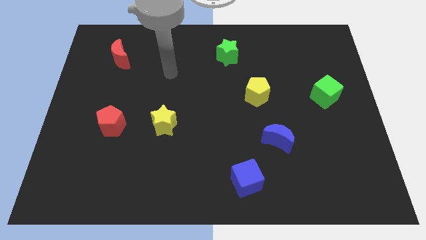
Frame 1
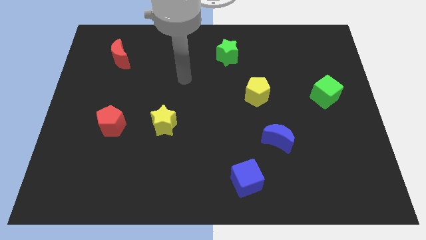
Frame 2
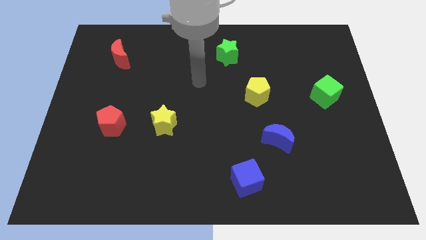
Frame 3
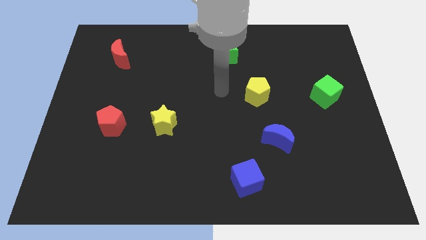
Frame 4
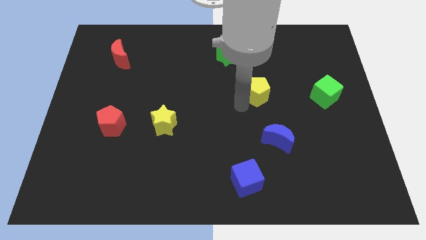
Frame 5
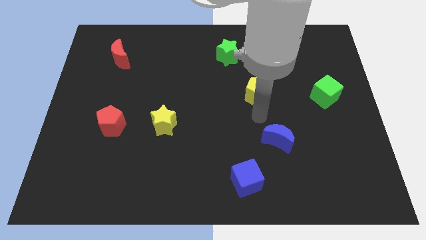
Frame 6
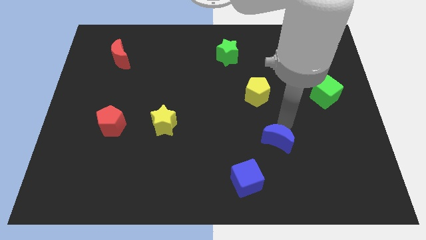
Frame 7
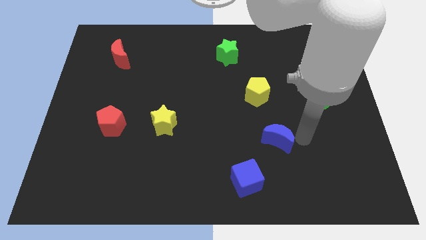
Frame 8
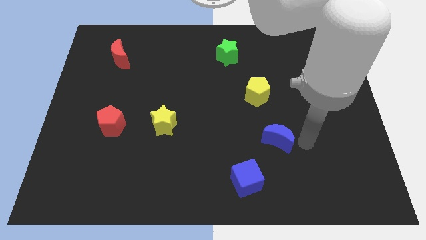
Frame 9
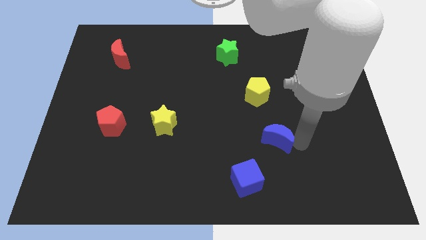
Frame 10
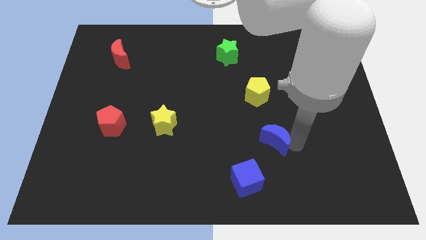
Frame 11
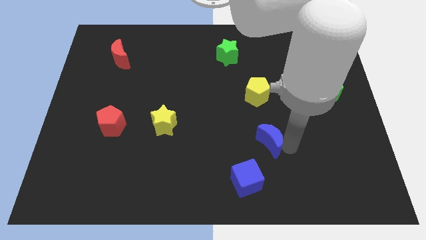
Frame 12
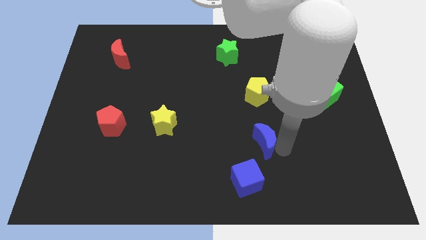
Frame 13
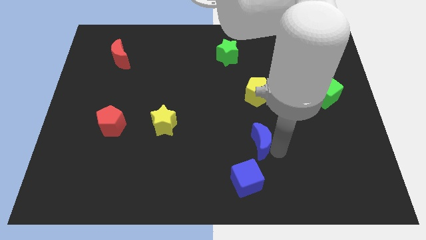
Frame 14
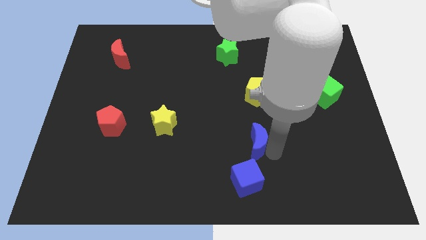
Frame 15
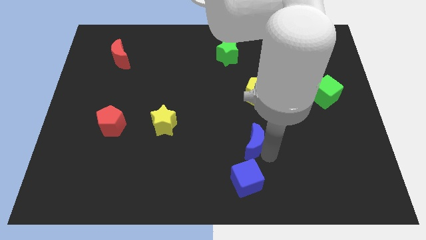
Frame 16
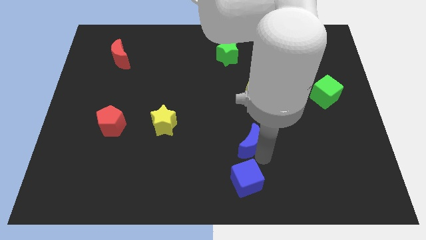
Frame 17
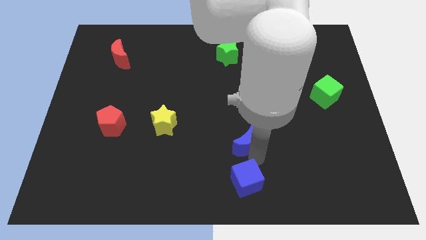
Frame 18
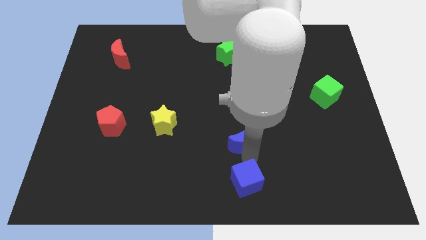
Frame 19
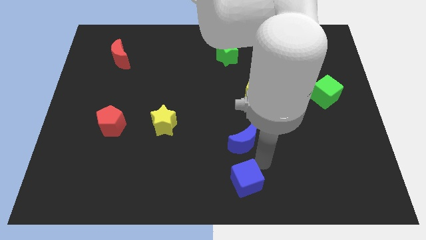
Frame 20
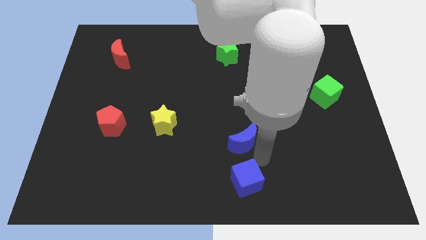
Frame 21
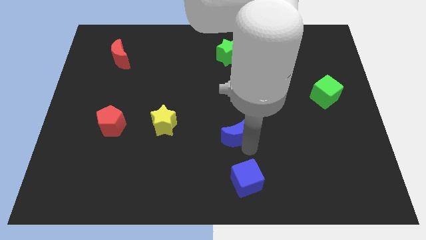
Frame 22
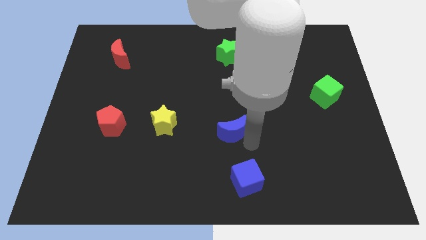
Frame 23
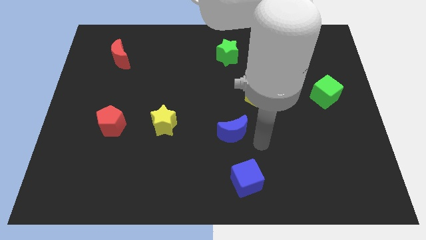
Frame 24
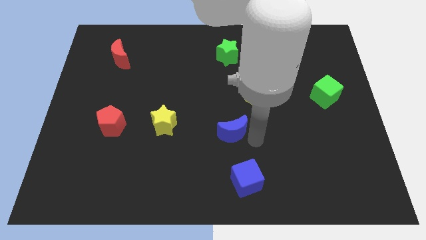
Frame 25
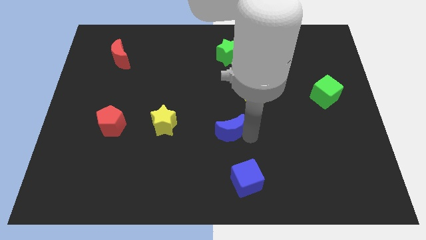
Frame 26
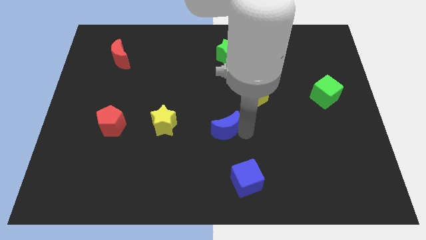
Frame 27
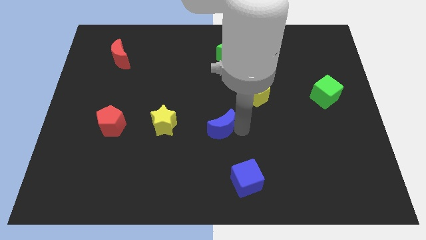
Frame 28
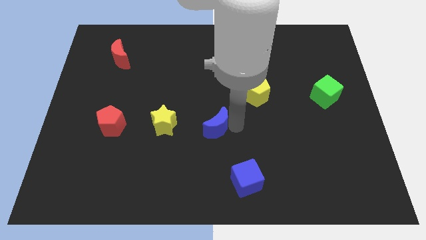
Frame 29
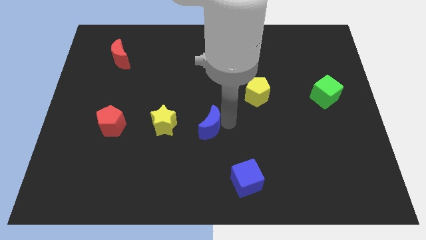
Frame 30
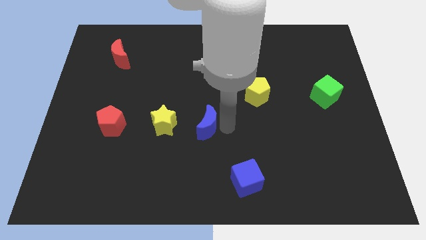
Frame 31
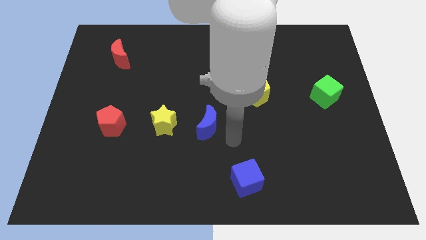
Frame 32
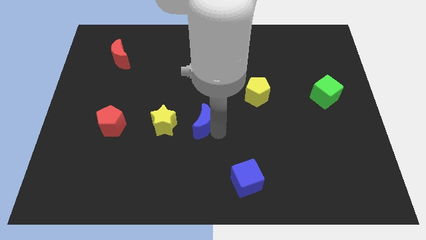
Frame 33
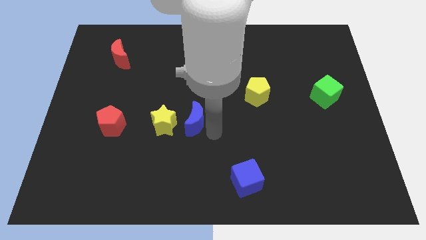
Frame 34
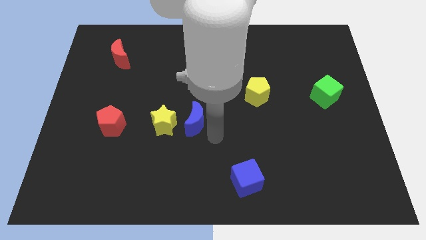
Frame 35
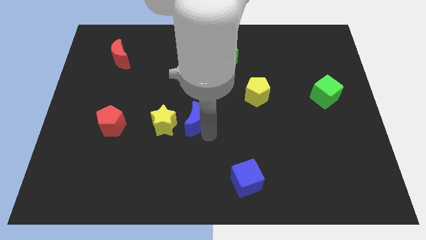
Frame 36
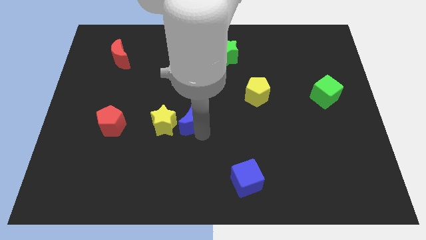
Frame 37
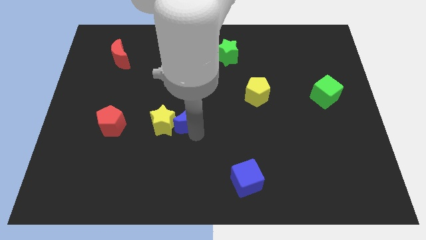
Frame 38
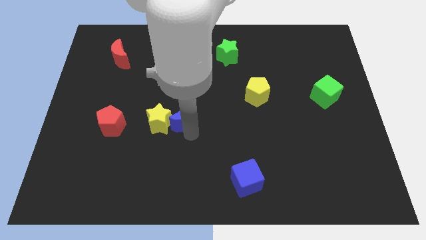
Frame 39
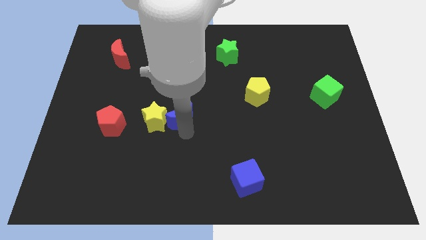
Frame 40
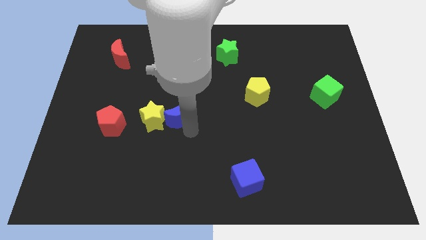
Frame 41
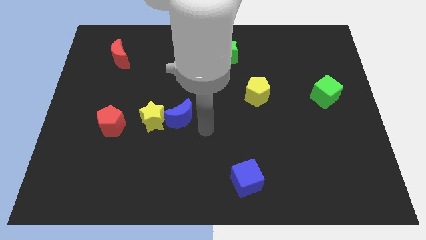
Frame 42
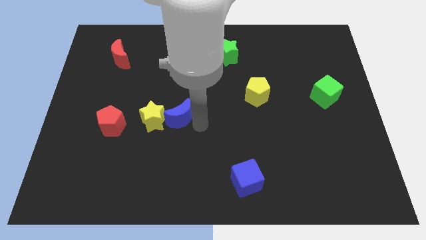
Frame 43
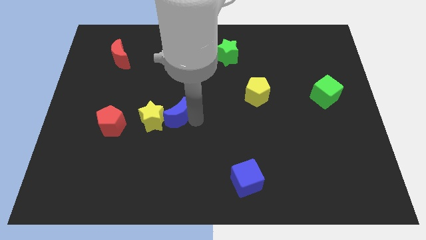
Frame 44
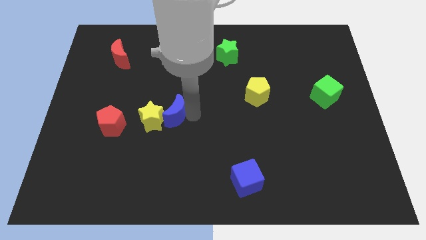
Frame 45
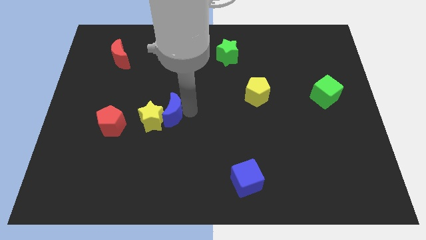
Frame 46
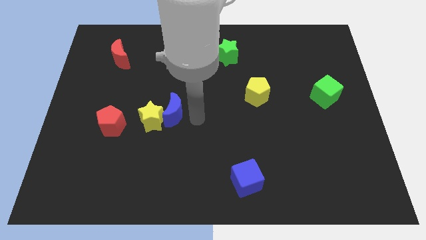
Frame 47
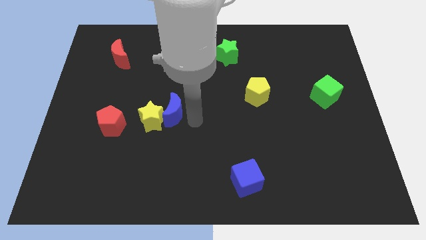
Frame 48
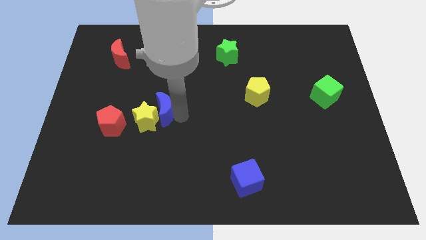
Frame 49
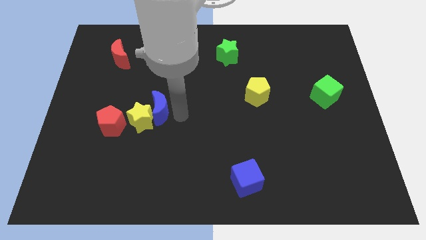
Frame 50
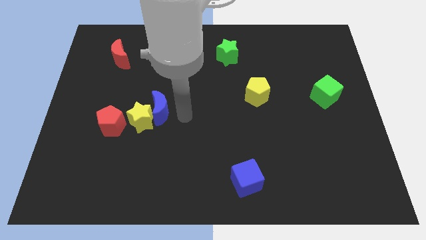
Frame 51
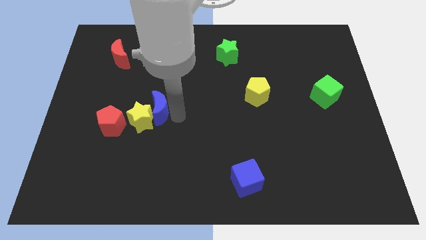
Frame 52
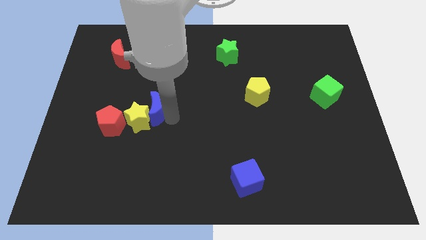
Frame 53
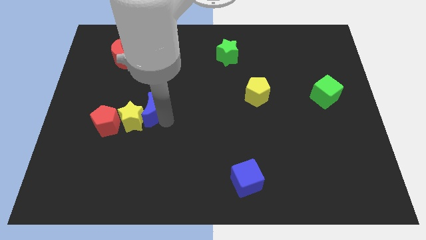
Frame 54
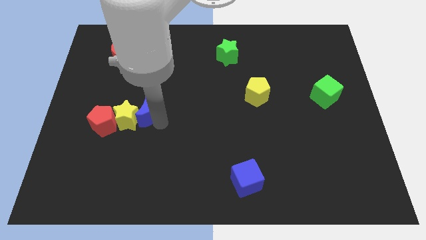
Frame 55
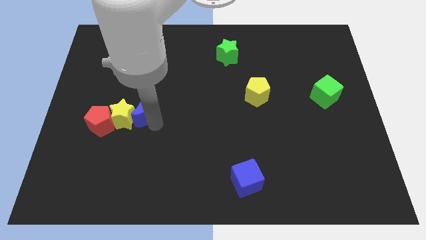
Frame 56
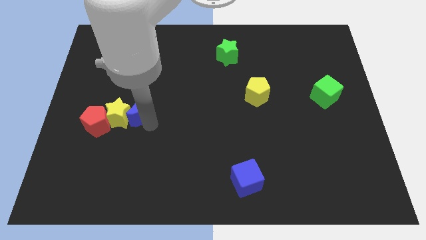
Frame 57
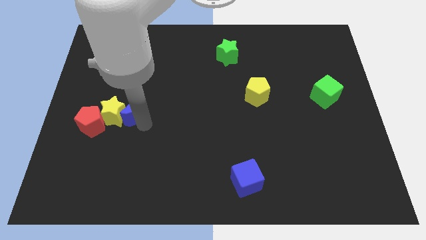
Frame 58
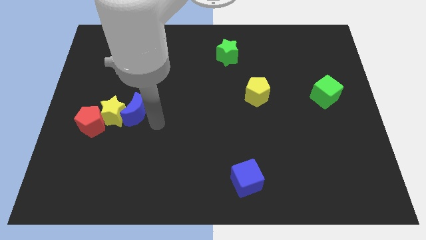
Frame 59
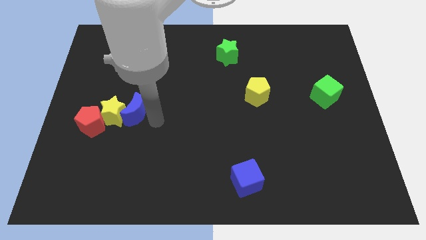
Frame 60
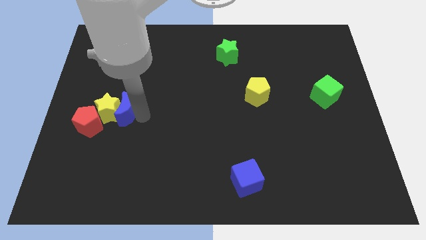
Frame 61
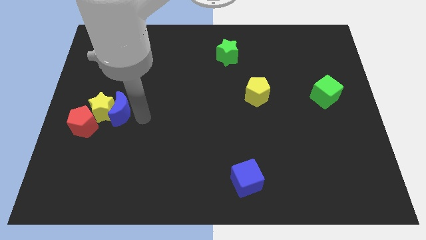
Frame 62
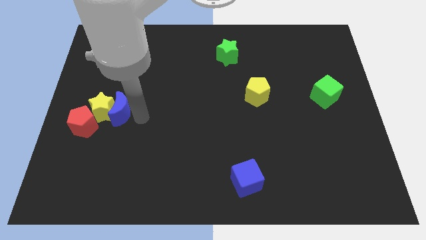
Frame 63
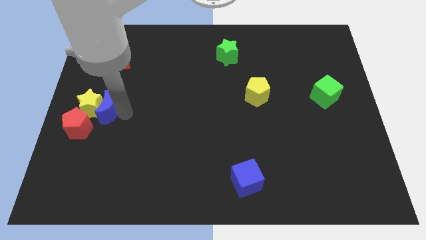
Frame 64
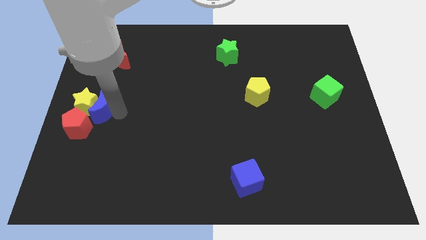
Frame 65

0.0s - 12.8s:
slide the blue moon to the left side of the board
